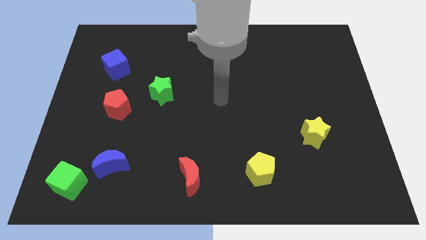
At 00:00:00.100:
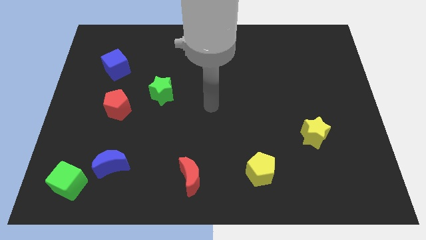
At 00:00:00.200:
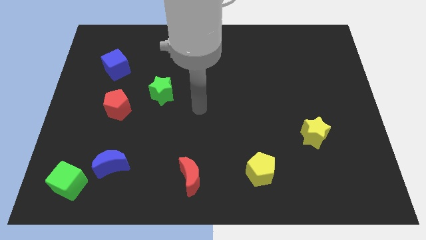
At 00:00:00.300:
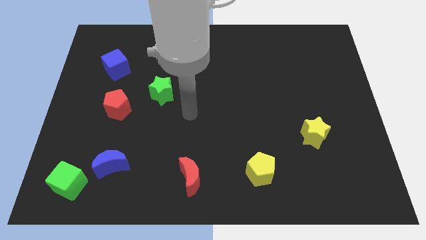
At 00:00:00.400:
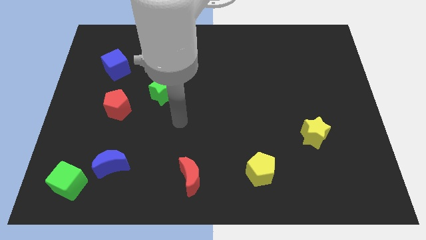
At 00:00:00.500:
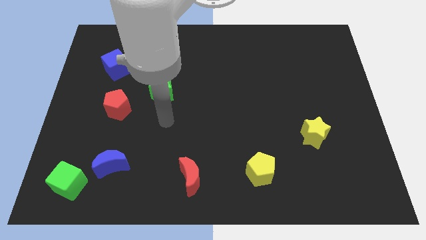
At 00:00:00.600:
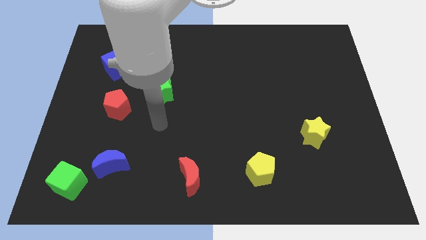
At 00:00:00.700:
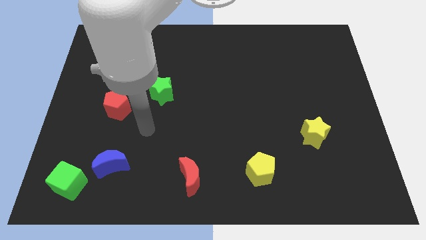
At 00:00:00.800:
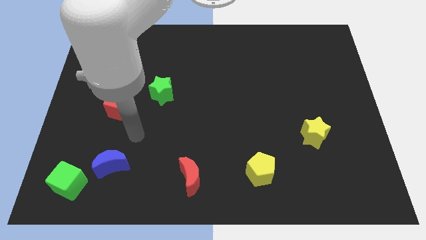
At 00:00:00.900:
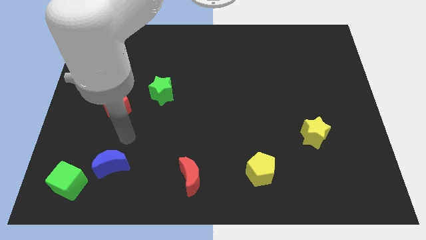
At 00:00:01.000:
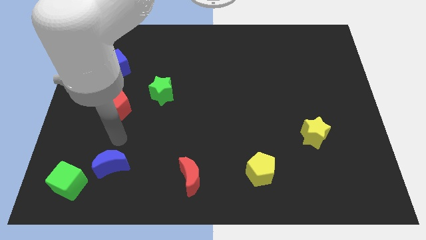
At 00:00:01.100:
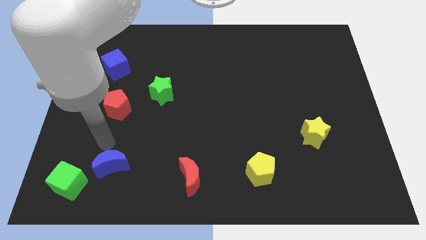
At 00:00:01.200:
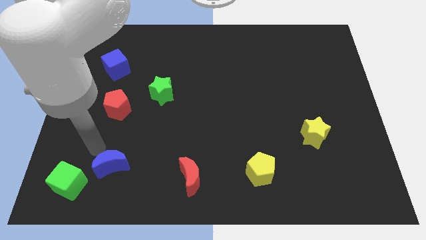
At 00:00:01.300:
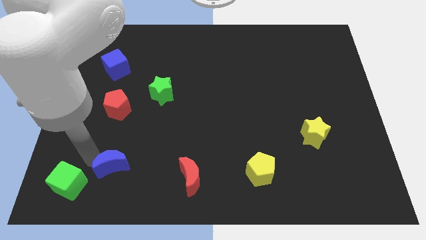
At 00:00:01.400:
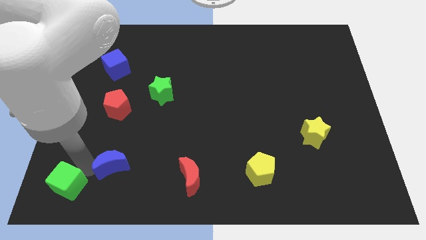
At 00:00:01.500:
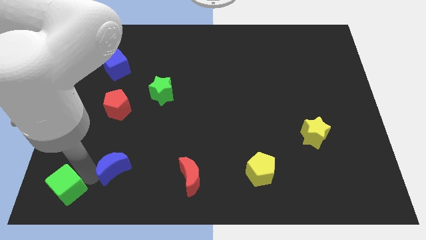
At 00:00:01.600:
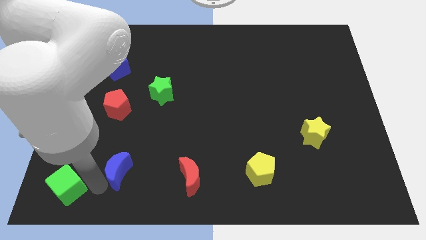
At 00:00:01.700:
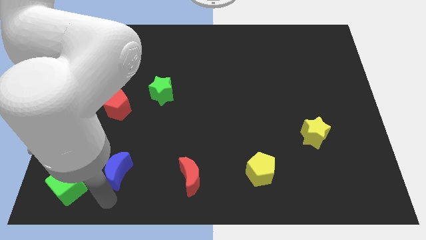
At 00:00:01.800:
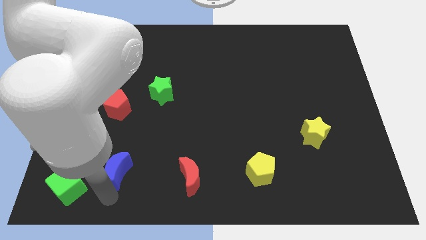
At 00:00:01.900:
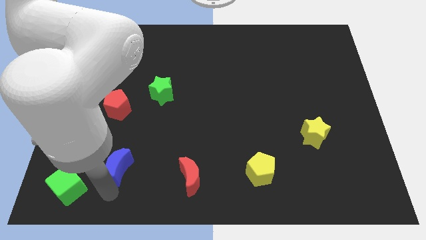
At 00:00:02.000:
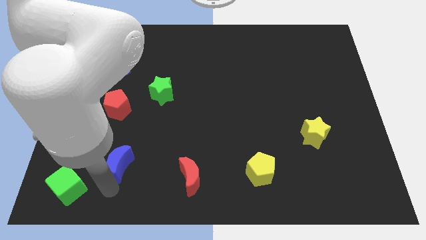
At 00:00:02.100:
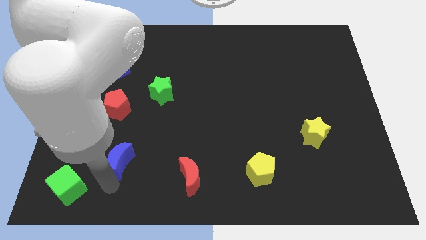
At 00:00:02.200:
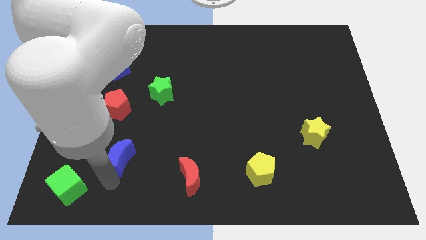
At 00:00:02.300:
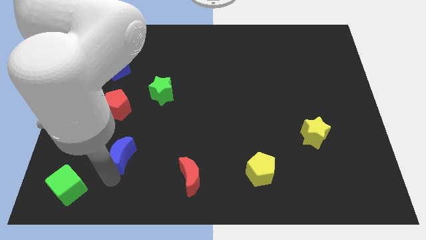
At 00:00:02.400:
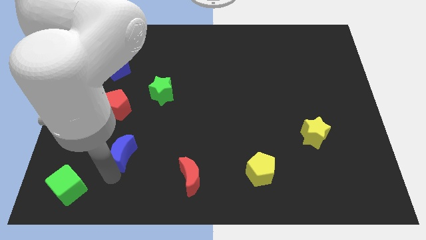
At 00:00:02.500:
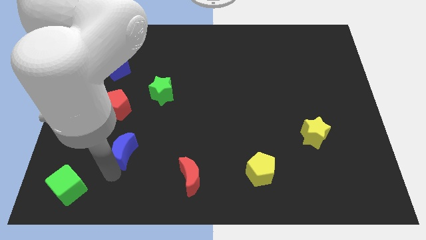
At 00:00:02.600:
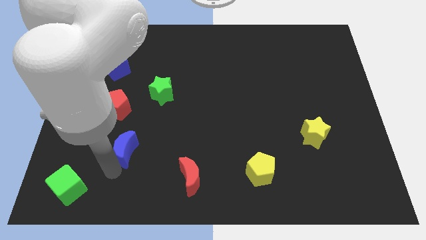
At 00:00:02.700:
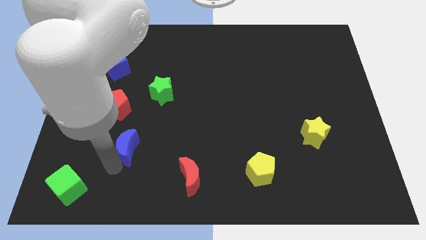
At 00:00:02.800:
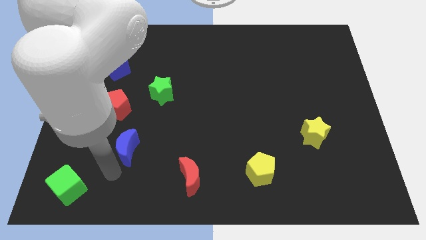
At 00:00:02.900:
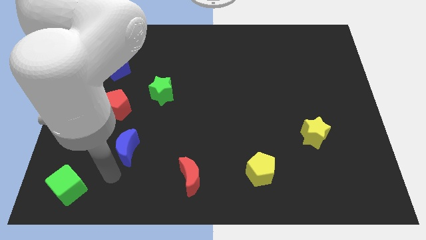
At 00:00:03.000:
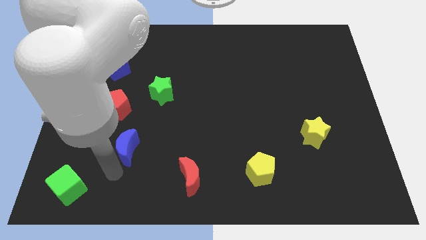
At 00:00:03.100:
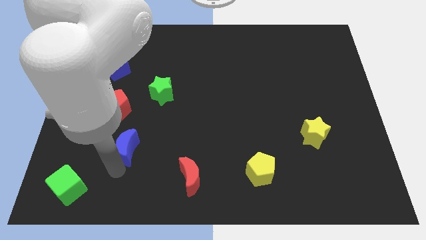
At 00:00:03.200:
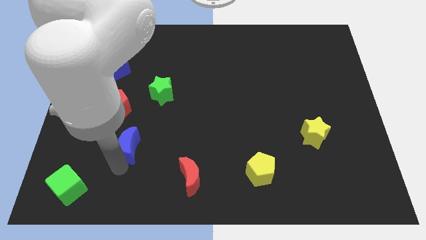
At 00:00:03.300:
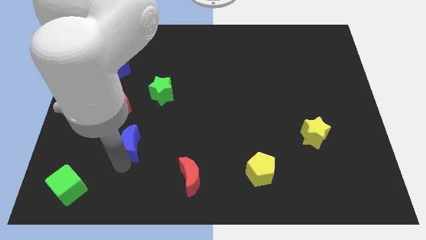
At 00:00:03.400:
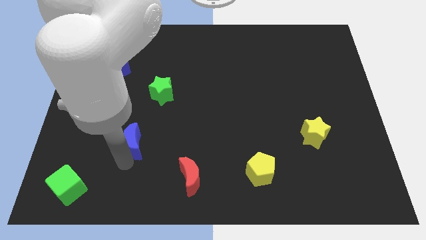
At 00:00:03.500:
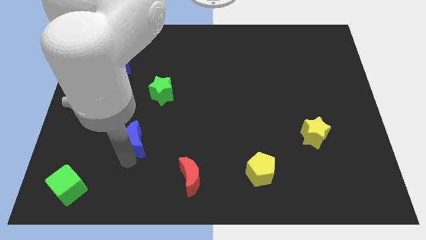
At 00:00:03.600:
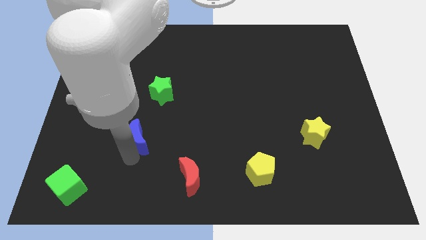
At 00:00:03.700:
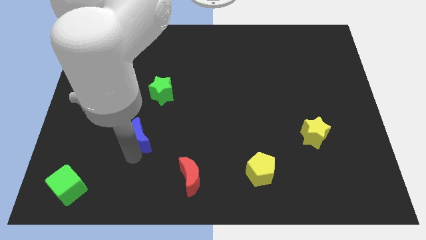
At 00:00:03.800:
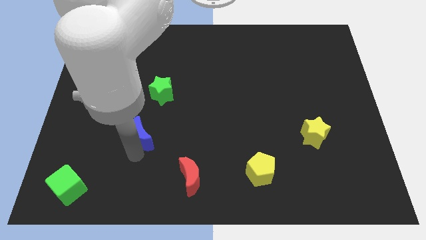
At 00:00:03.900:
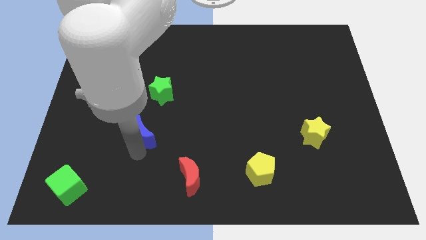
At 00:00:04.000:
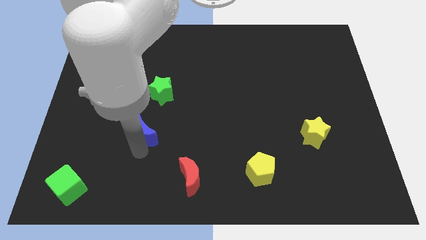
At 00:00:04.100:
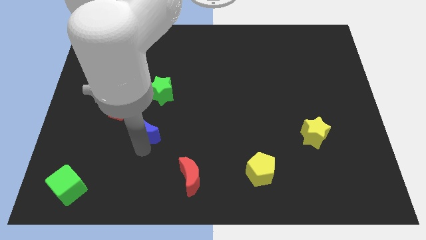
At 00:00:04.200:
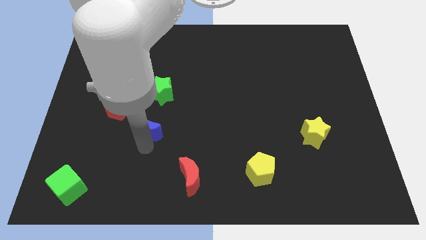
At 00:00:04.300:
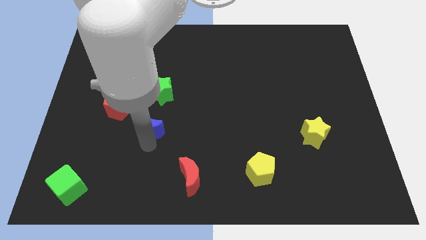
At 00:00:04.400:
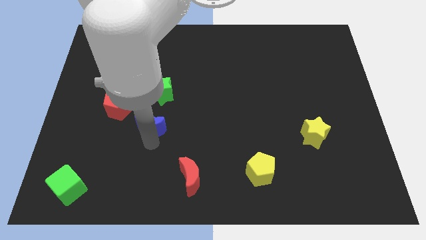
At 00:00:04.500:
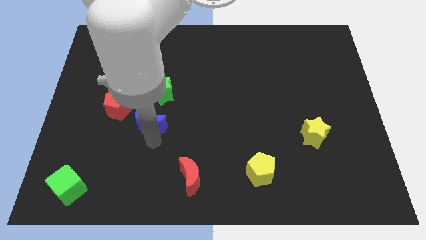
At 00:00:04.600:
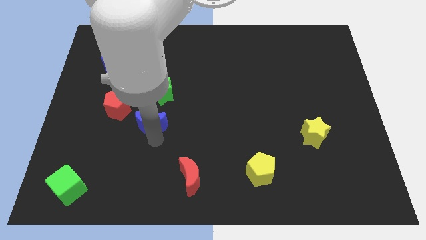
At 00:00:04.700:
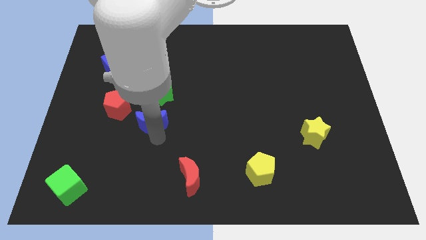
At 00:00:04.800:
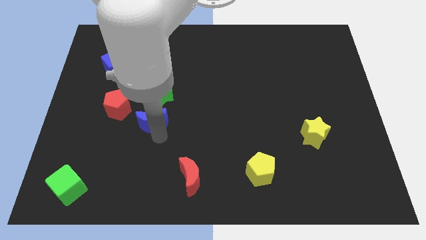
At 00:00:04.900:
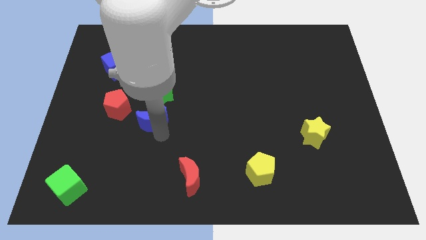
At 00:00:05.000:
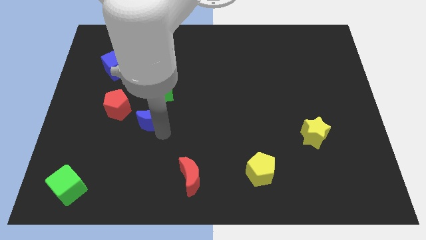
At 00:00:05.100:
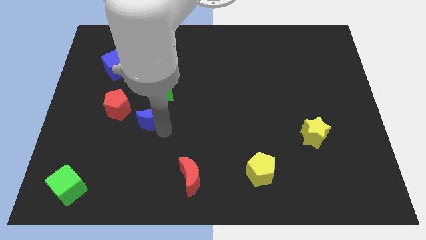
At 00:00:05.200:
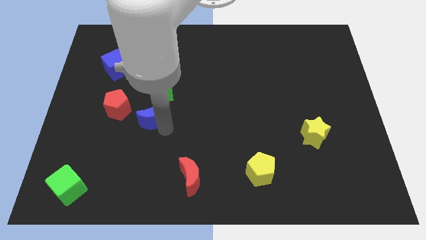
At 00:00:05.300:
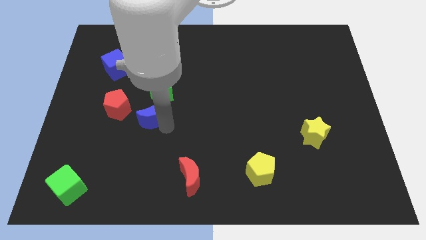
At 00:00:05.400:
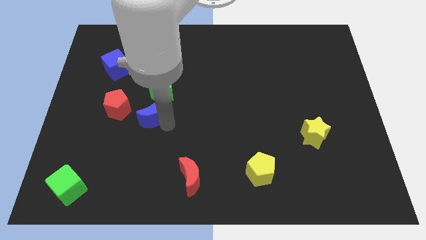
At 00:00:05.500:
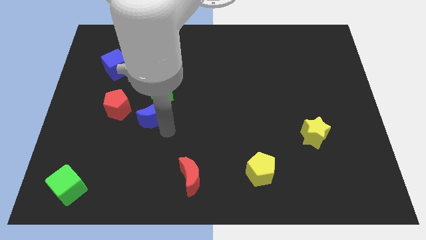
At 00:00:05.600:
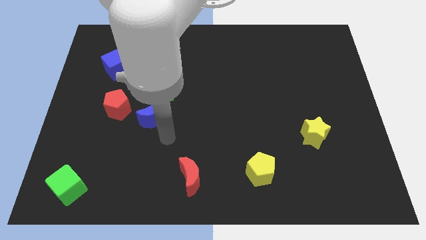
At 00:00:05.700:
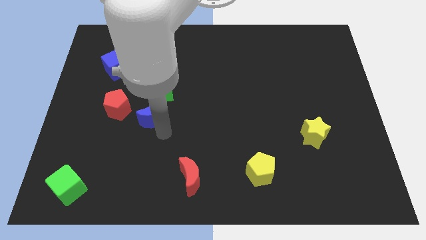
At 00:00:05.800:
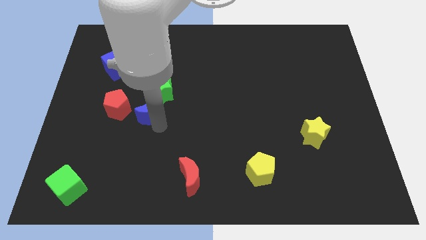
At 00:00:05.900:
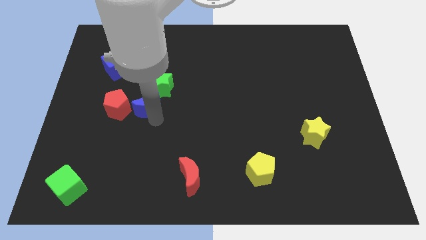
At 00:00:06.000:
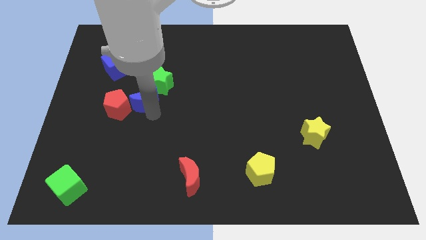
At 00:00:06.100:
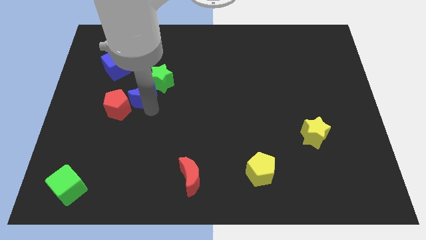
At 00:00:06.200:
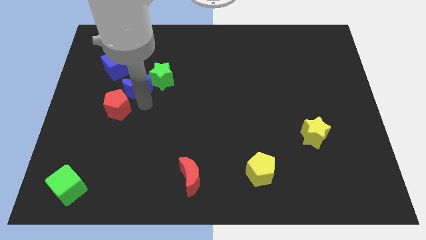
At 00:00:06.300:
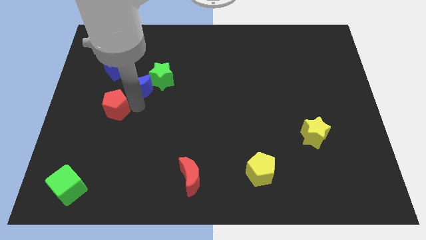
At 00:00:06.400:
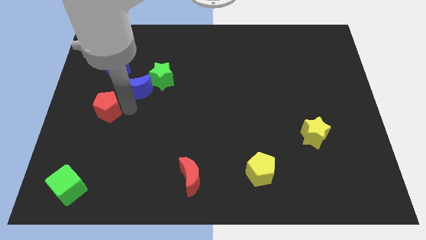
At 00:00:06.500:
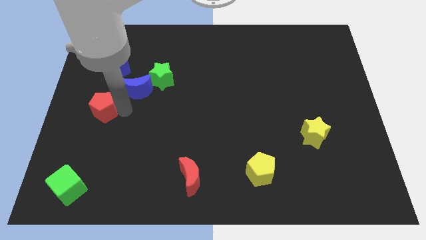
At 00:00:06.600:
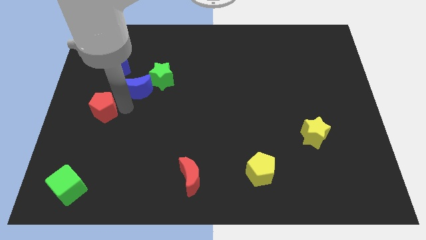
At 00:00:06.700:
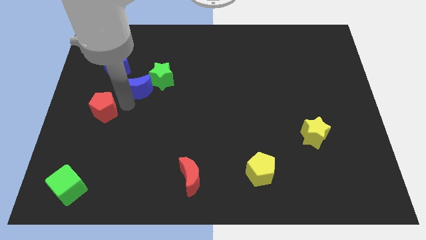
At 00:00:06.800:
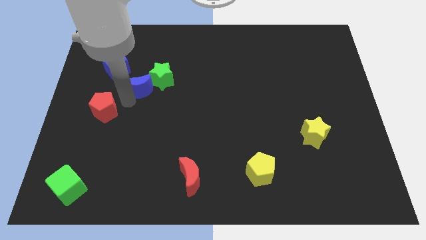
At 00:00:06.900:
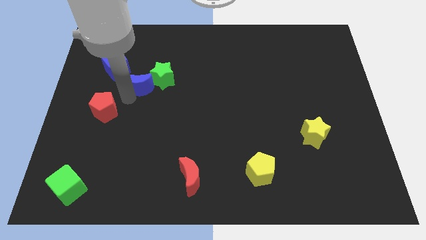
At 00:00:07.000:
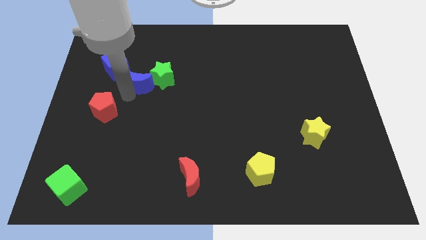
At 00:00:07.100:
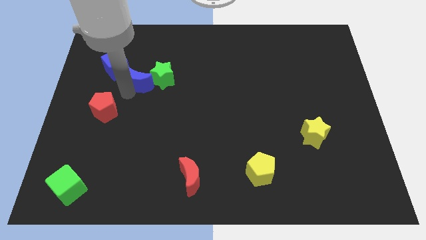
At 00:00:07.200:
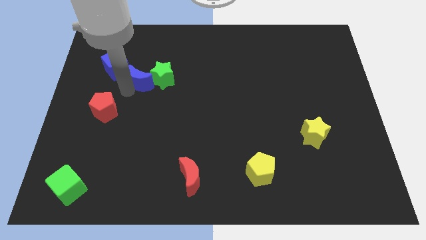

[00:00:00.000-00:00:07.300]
slide the blue moon to the right side of the blue cube
